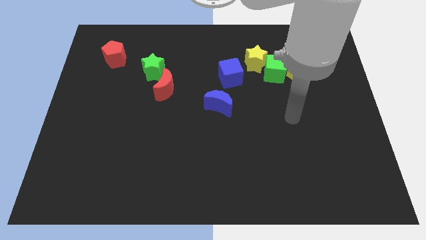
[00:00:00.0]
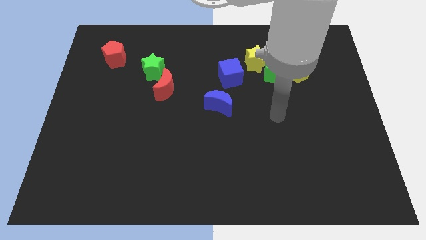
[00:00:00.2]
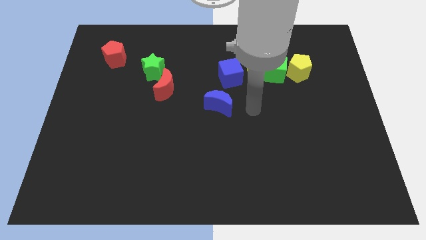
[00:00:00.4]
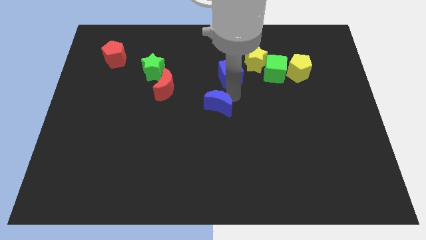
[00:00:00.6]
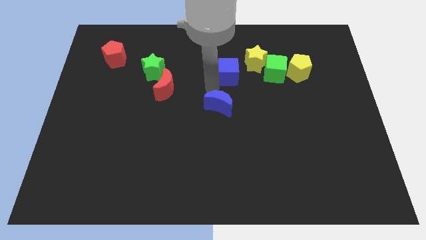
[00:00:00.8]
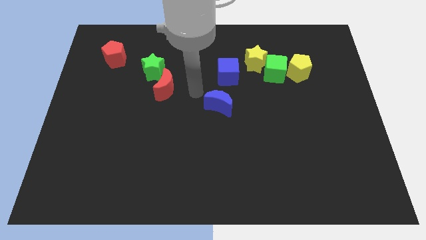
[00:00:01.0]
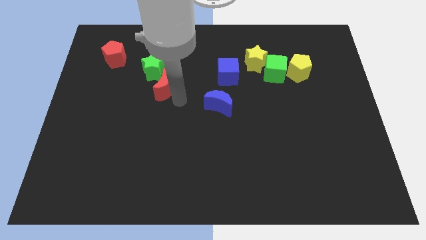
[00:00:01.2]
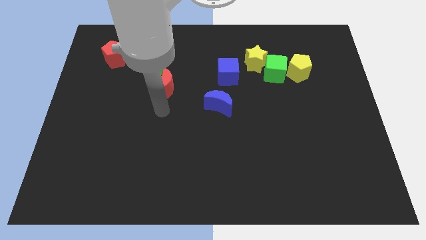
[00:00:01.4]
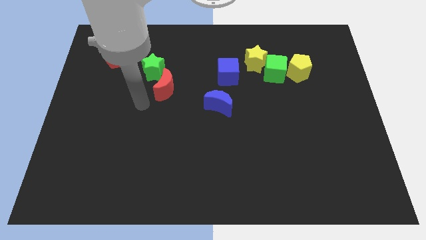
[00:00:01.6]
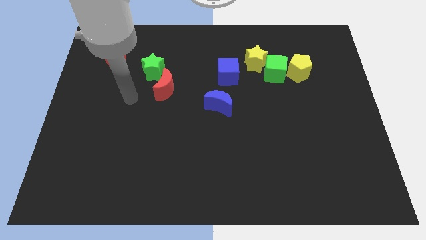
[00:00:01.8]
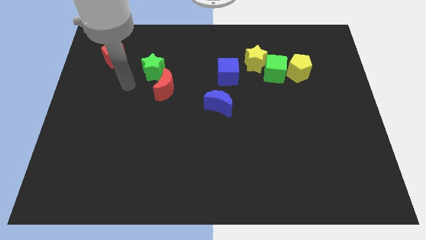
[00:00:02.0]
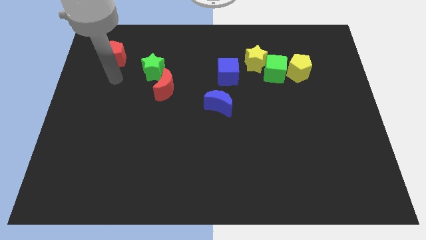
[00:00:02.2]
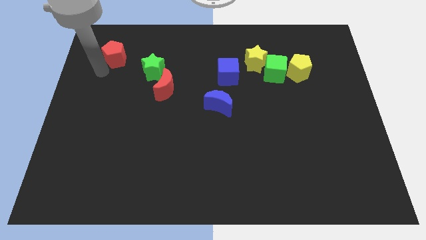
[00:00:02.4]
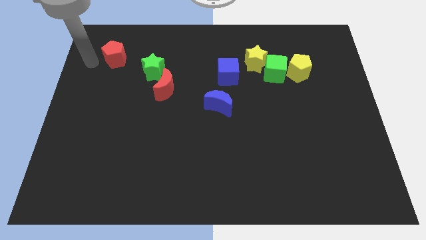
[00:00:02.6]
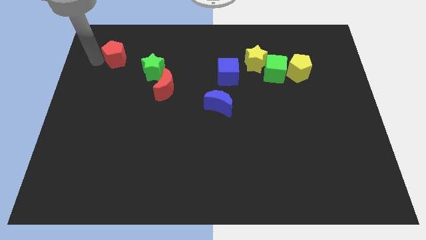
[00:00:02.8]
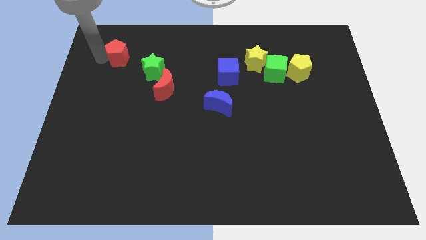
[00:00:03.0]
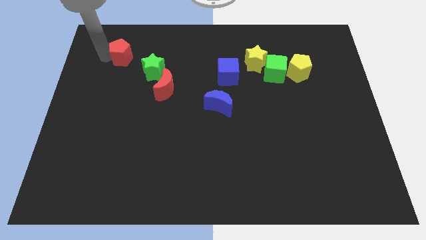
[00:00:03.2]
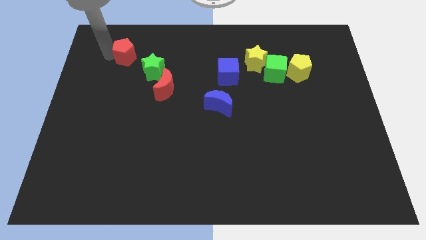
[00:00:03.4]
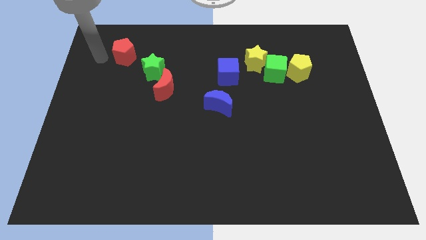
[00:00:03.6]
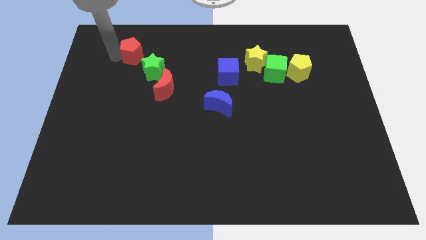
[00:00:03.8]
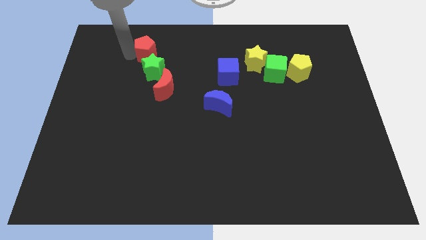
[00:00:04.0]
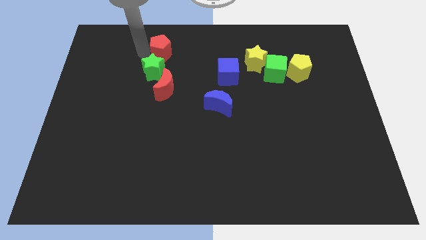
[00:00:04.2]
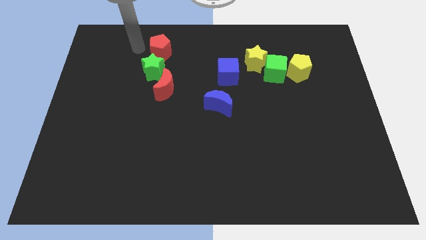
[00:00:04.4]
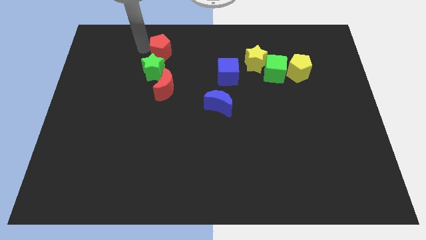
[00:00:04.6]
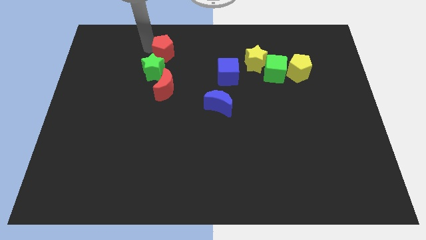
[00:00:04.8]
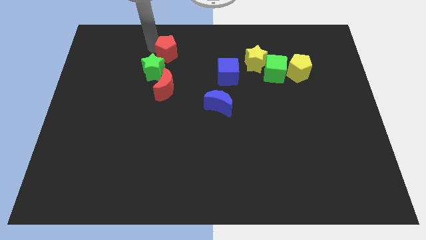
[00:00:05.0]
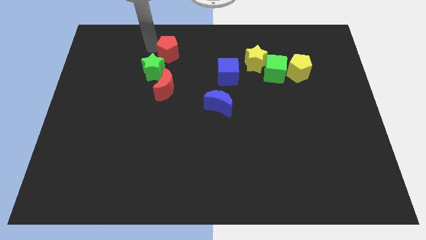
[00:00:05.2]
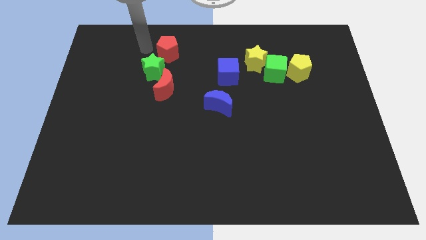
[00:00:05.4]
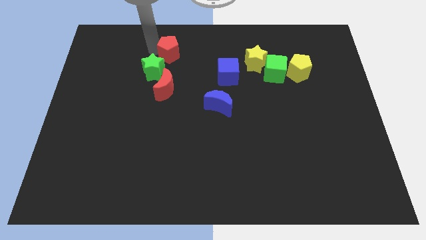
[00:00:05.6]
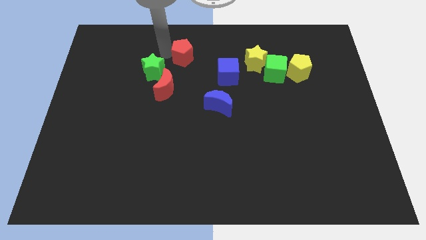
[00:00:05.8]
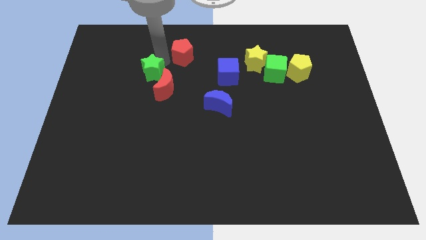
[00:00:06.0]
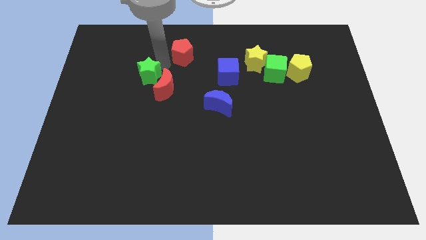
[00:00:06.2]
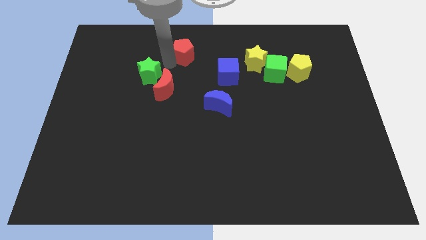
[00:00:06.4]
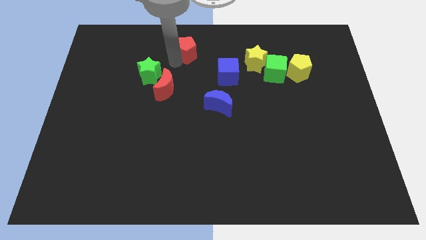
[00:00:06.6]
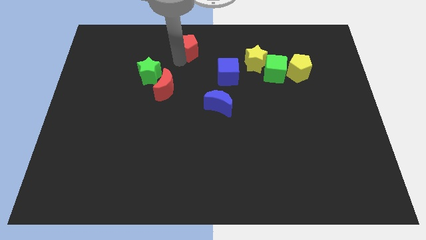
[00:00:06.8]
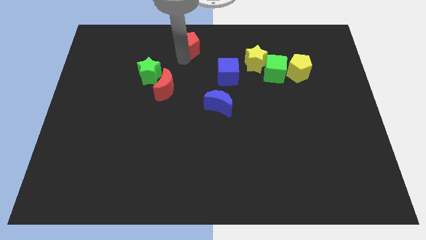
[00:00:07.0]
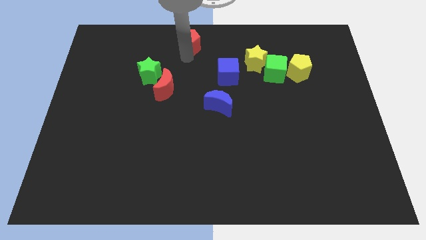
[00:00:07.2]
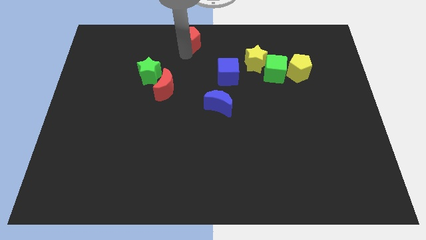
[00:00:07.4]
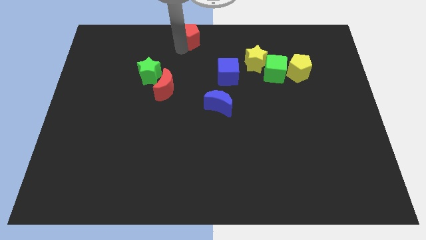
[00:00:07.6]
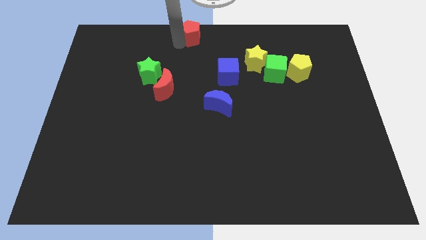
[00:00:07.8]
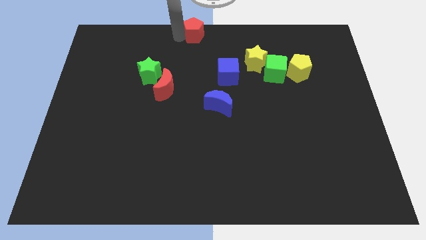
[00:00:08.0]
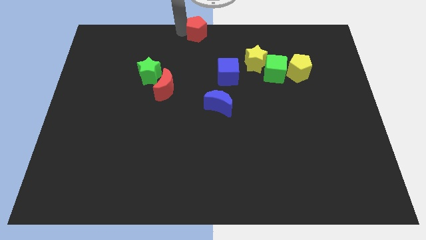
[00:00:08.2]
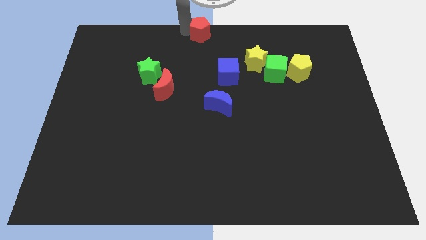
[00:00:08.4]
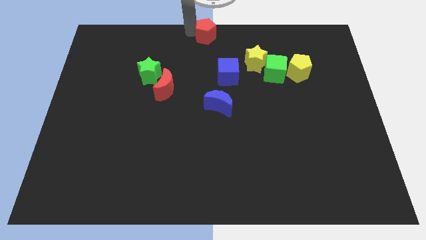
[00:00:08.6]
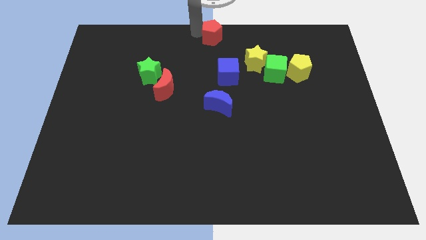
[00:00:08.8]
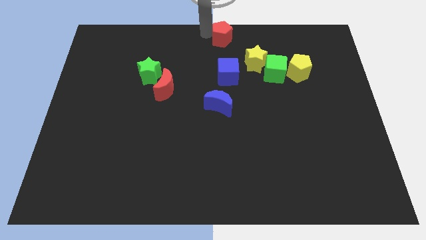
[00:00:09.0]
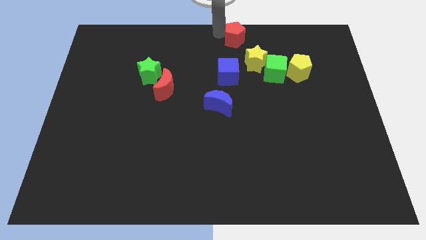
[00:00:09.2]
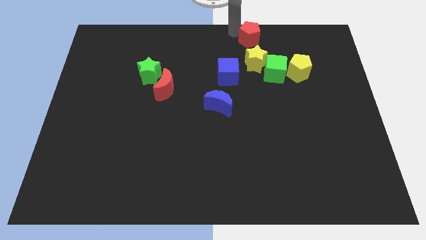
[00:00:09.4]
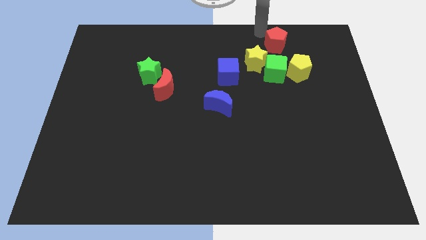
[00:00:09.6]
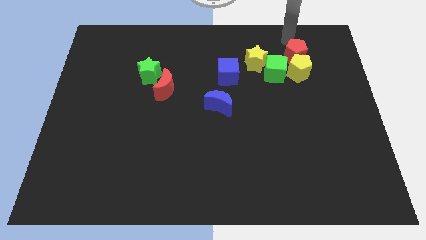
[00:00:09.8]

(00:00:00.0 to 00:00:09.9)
move the red pentagon to the yellow pentagon

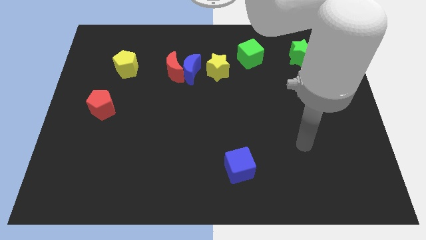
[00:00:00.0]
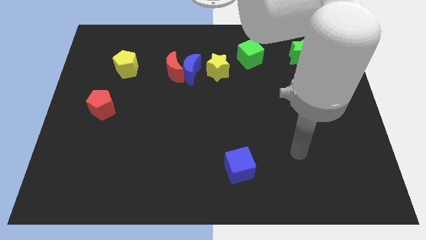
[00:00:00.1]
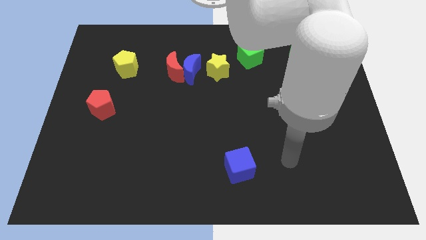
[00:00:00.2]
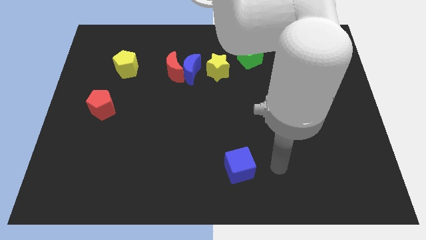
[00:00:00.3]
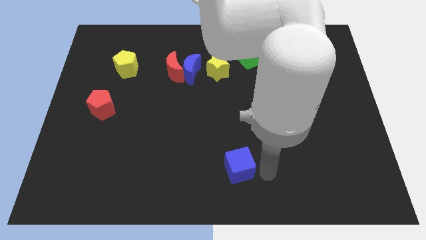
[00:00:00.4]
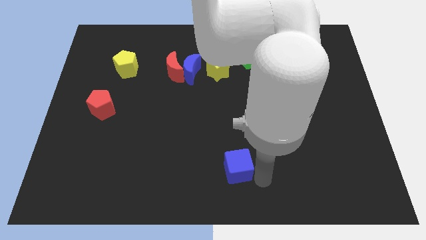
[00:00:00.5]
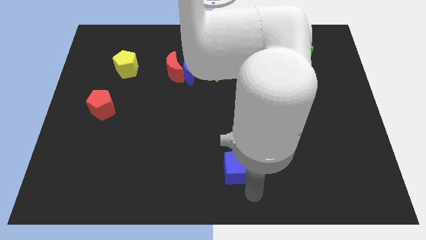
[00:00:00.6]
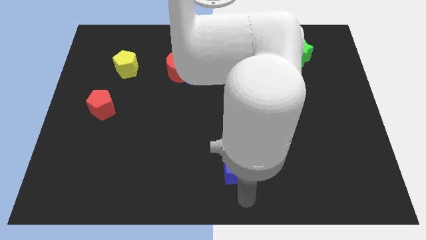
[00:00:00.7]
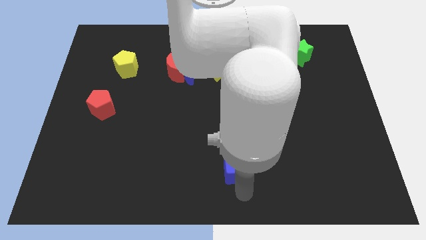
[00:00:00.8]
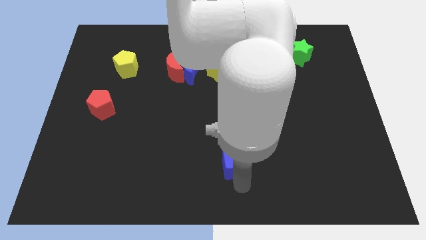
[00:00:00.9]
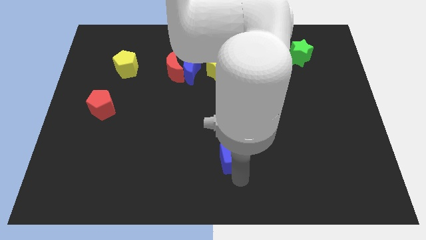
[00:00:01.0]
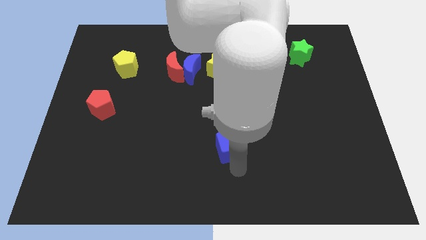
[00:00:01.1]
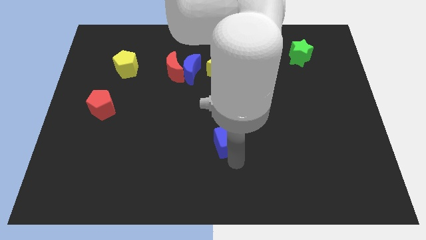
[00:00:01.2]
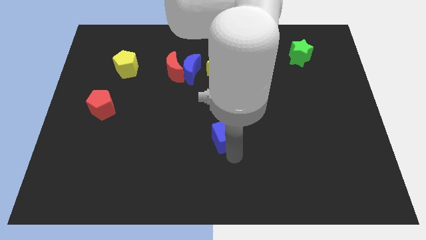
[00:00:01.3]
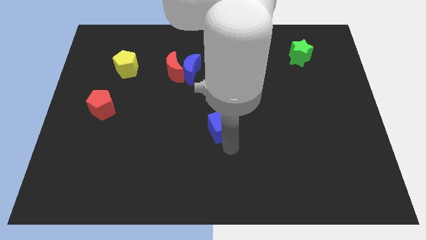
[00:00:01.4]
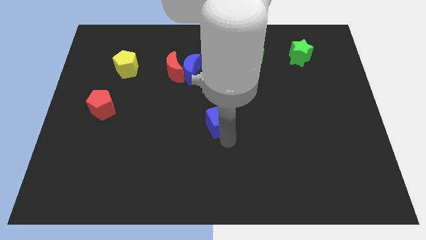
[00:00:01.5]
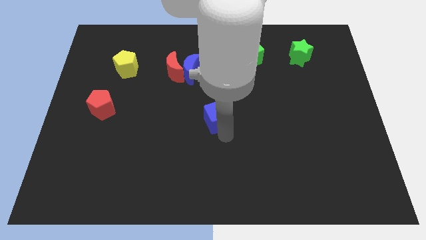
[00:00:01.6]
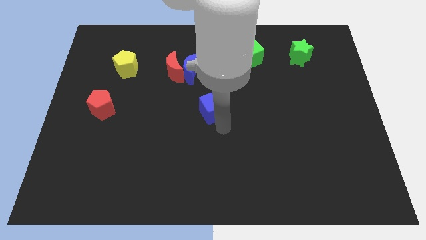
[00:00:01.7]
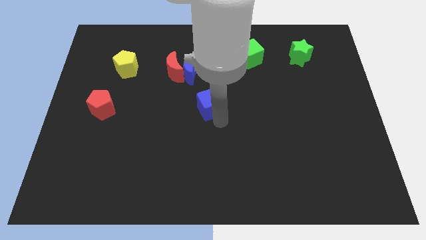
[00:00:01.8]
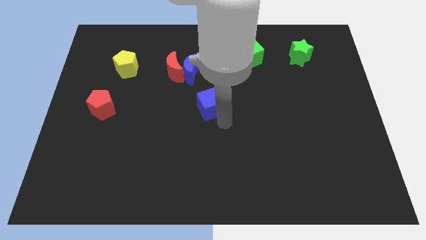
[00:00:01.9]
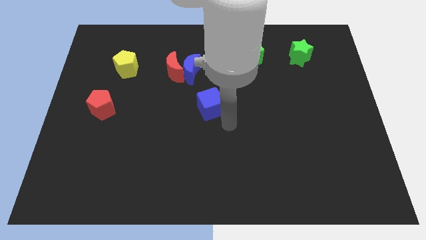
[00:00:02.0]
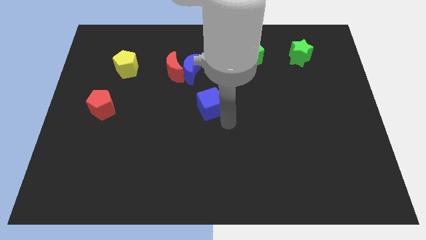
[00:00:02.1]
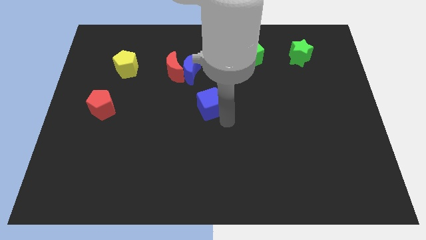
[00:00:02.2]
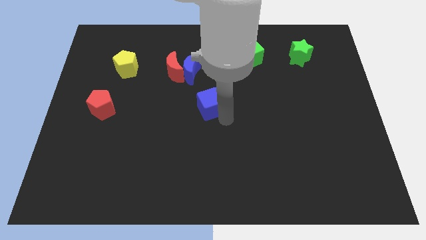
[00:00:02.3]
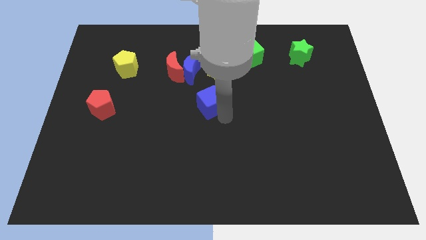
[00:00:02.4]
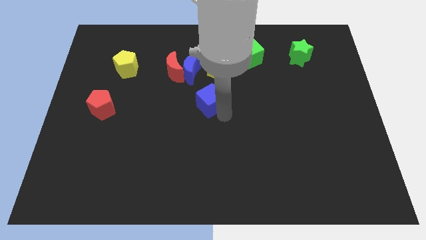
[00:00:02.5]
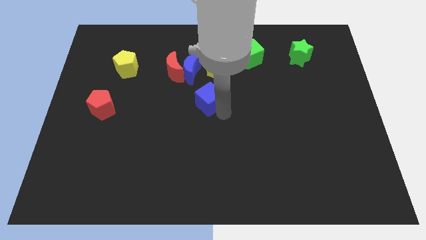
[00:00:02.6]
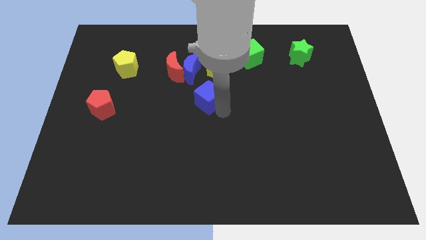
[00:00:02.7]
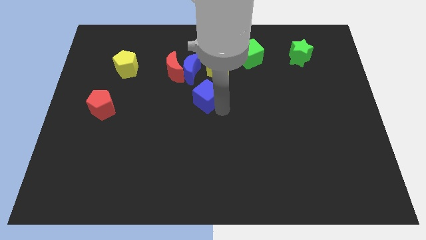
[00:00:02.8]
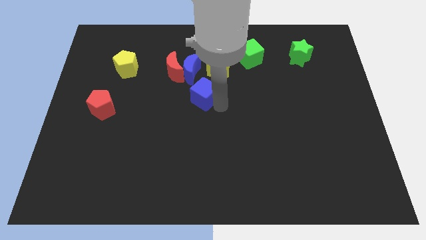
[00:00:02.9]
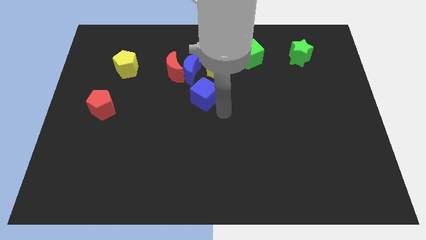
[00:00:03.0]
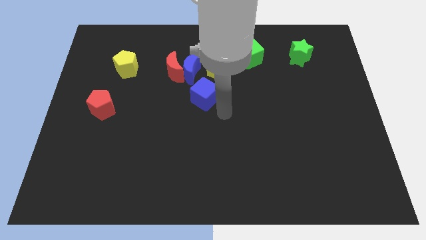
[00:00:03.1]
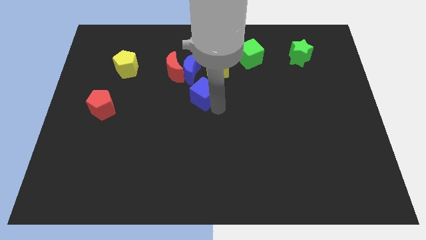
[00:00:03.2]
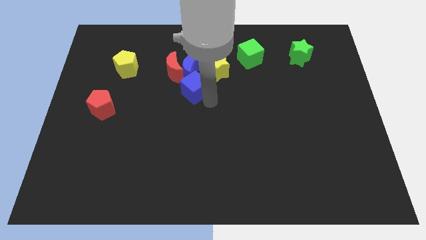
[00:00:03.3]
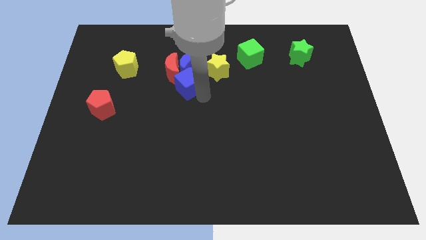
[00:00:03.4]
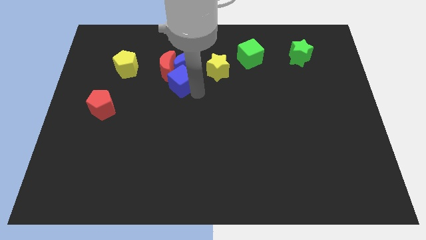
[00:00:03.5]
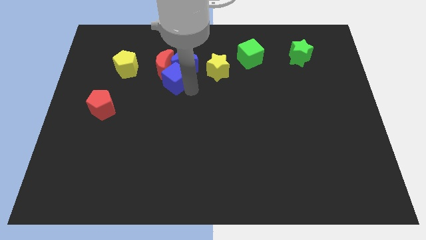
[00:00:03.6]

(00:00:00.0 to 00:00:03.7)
slide the blue cube towards the red moon
